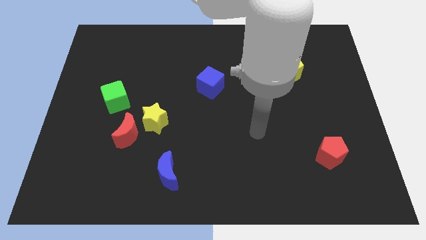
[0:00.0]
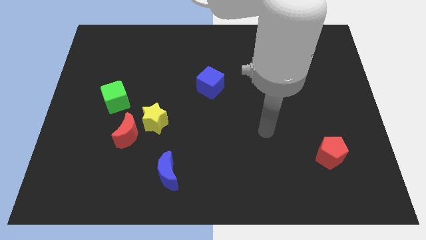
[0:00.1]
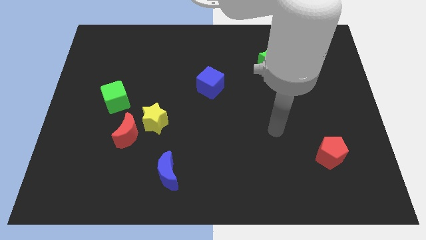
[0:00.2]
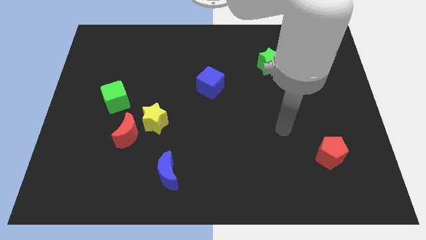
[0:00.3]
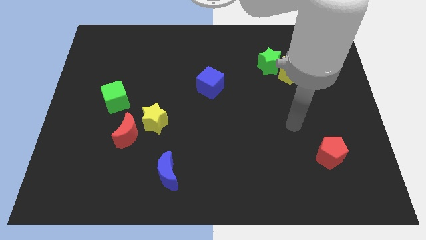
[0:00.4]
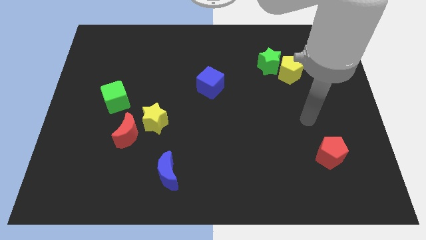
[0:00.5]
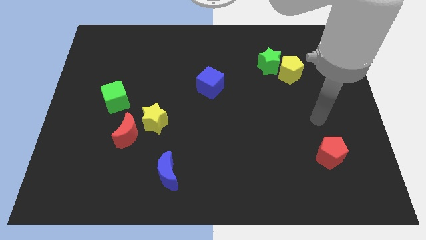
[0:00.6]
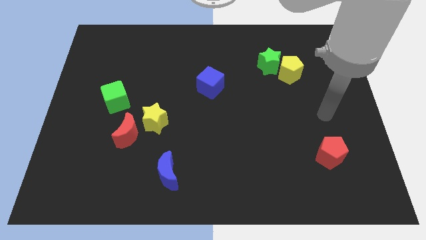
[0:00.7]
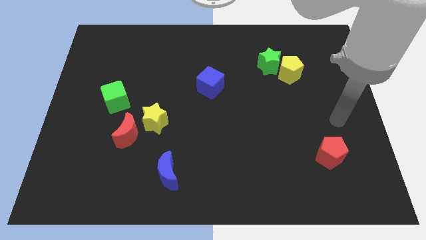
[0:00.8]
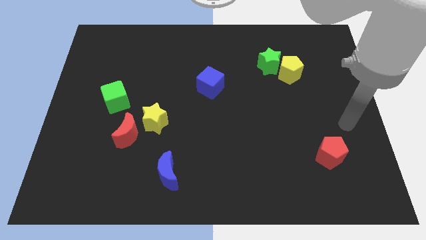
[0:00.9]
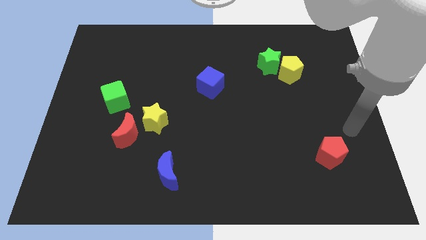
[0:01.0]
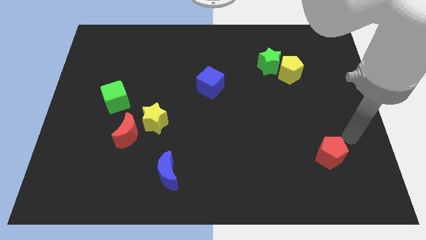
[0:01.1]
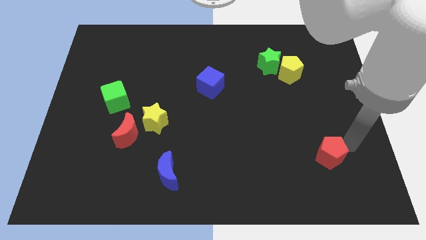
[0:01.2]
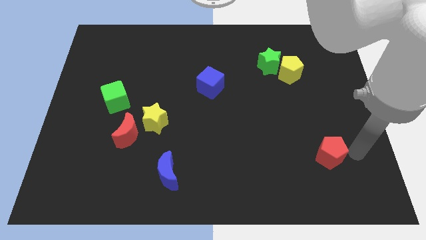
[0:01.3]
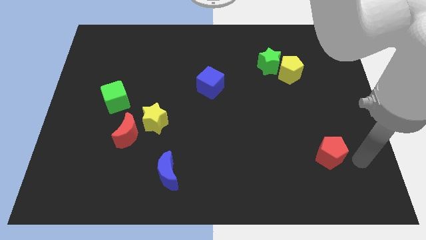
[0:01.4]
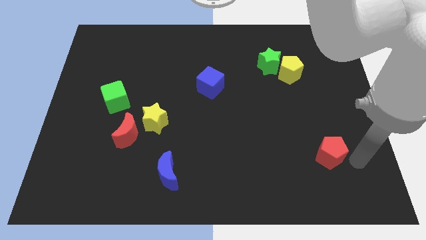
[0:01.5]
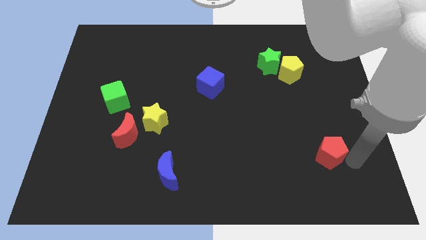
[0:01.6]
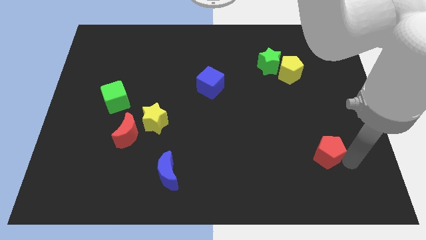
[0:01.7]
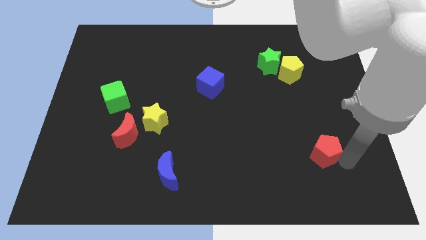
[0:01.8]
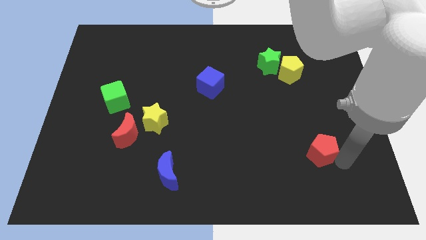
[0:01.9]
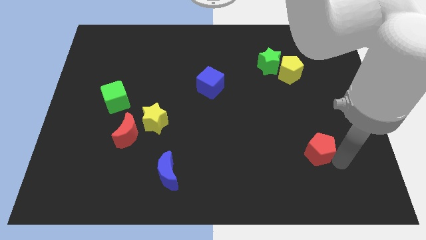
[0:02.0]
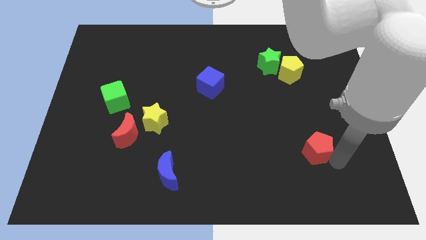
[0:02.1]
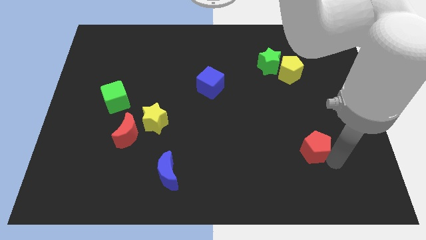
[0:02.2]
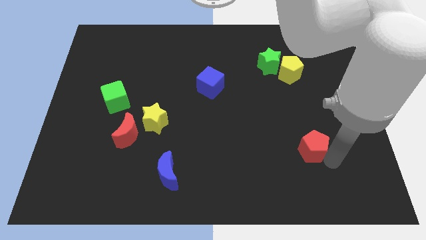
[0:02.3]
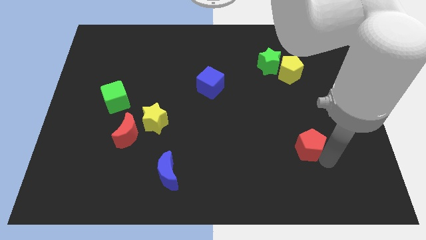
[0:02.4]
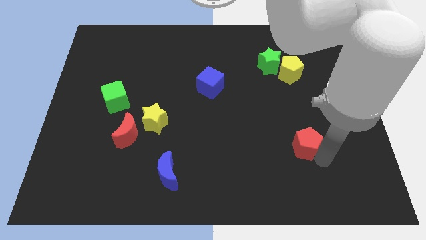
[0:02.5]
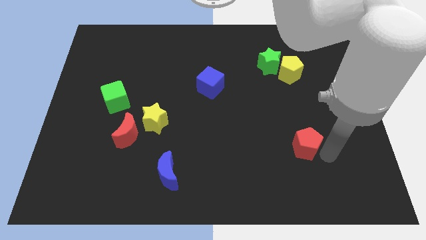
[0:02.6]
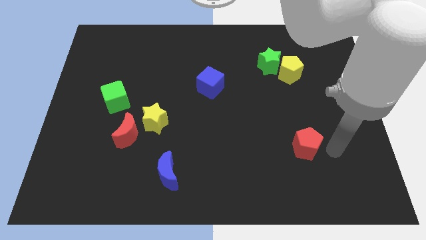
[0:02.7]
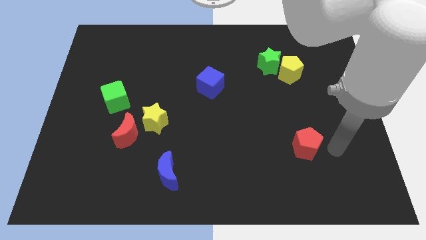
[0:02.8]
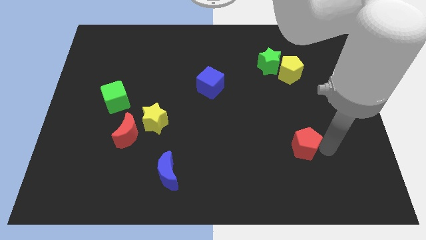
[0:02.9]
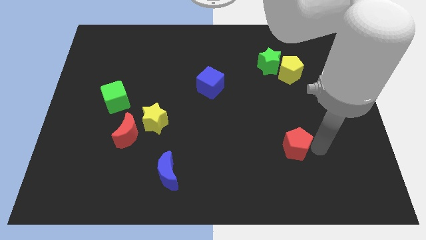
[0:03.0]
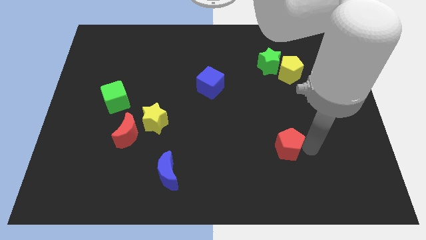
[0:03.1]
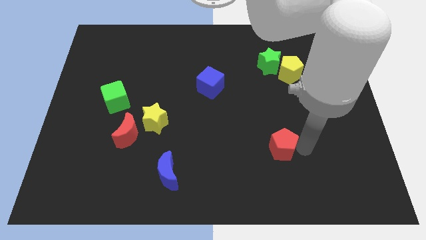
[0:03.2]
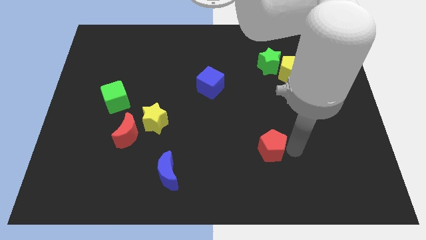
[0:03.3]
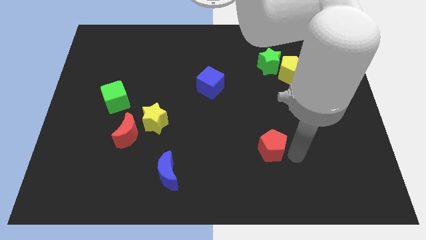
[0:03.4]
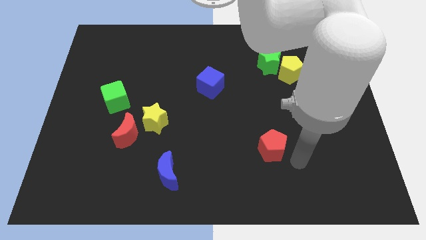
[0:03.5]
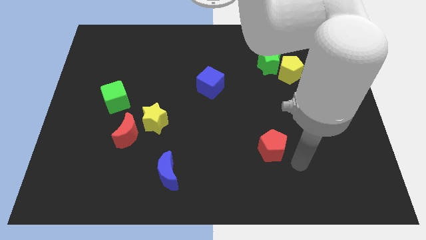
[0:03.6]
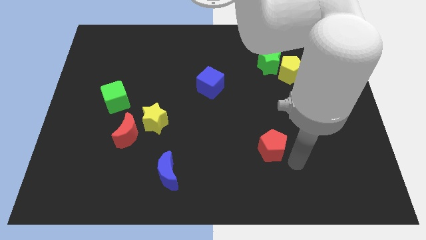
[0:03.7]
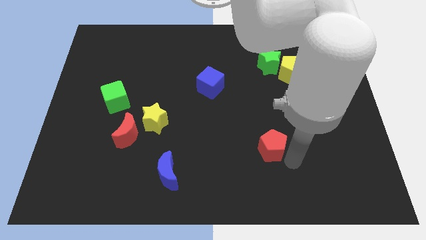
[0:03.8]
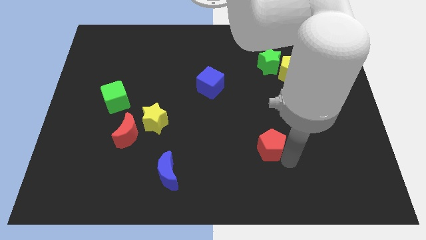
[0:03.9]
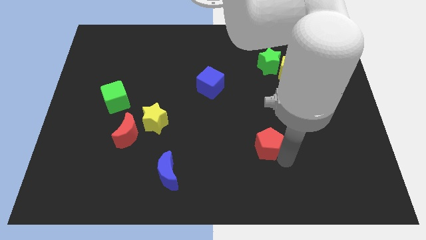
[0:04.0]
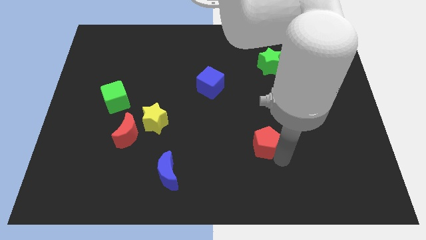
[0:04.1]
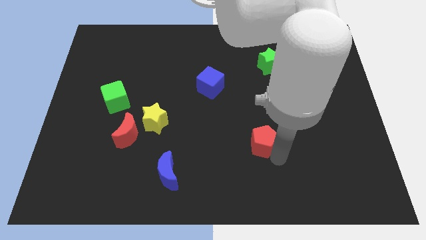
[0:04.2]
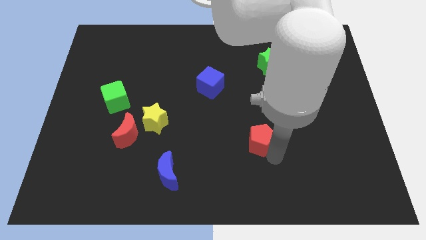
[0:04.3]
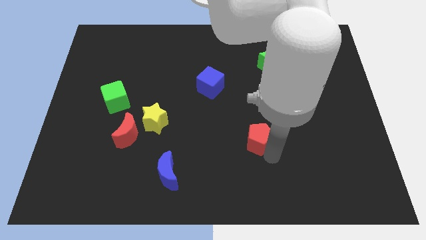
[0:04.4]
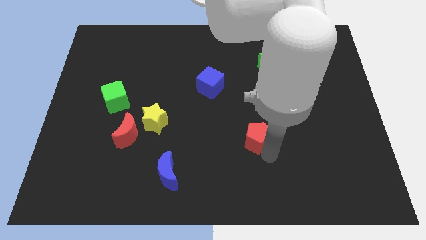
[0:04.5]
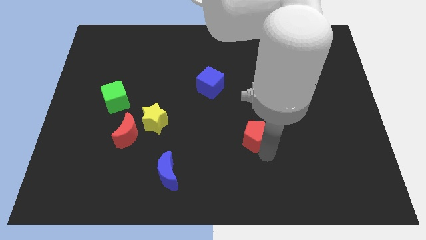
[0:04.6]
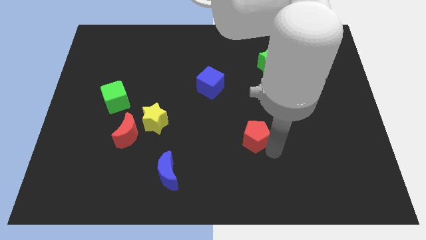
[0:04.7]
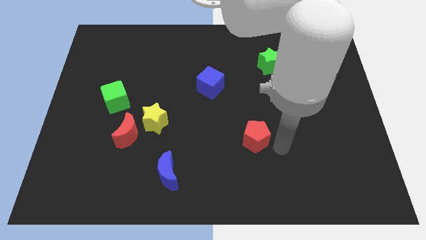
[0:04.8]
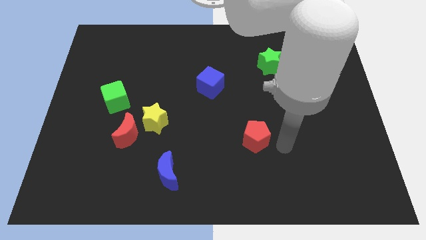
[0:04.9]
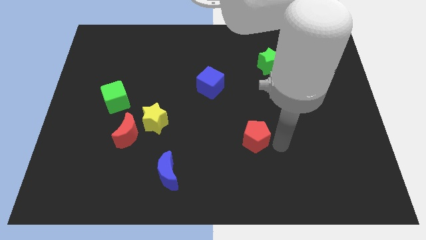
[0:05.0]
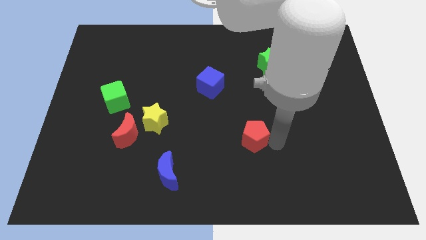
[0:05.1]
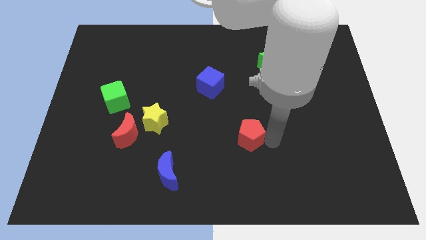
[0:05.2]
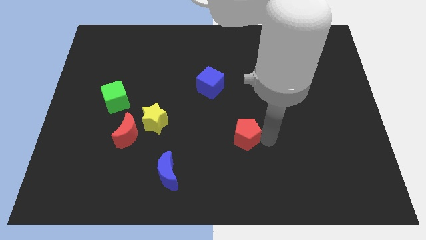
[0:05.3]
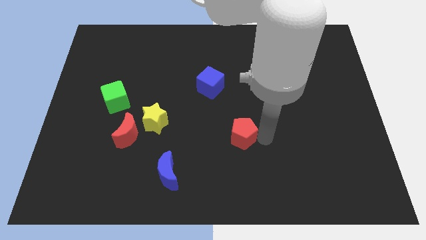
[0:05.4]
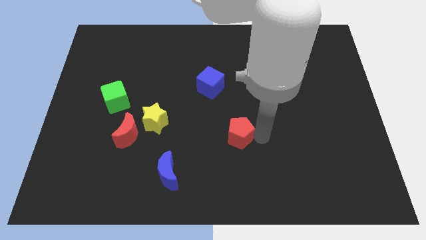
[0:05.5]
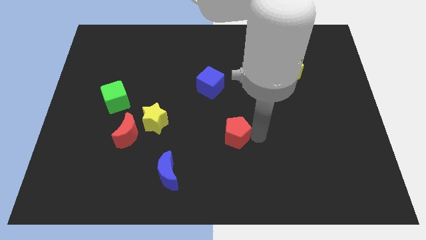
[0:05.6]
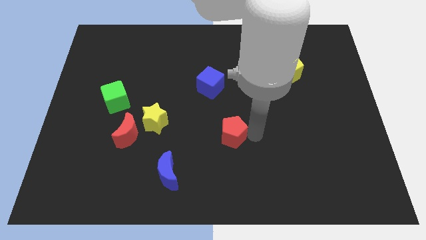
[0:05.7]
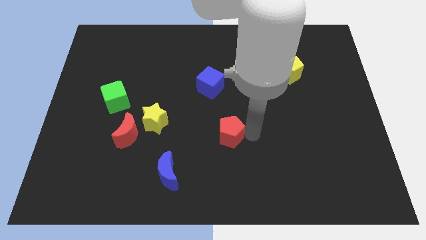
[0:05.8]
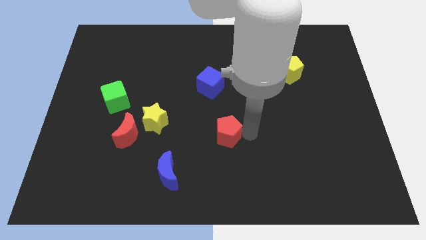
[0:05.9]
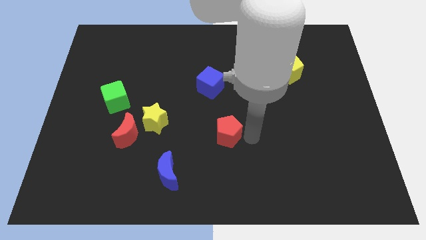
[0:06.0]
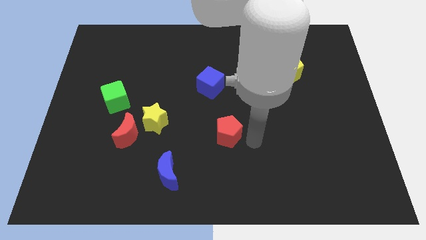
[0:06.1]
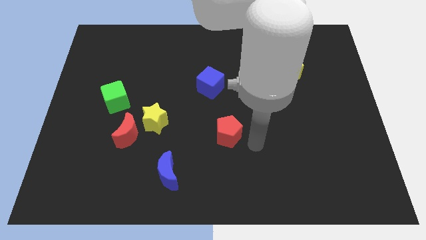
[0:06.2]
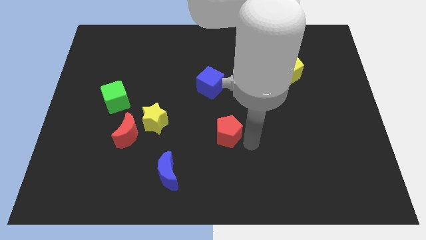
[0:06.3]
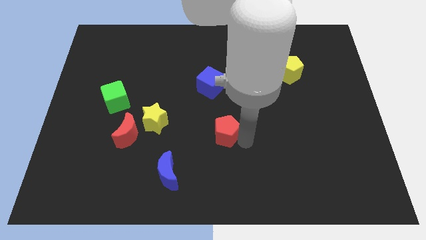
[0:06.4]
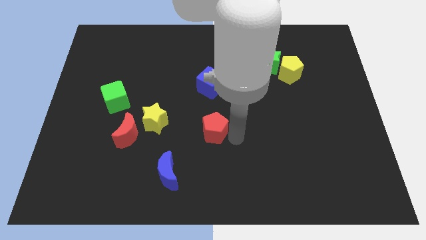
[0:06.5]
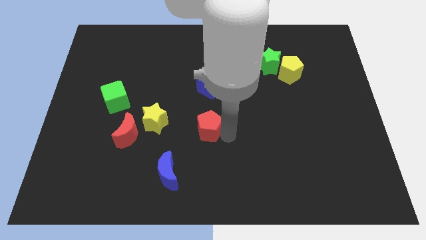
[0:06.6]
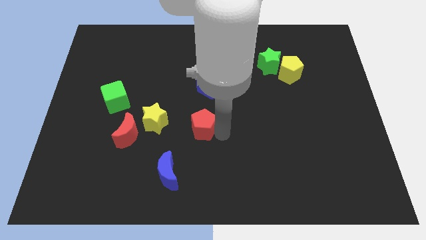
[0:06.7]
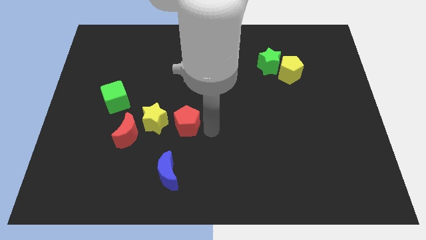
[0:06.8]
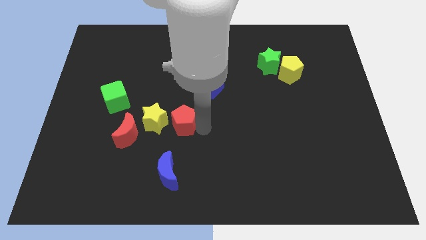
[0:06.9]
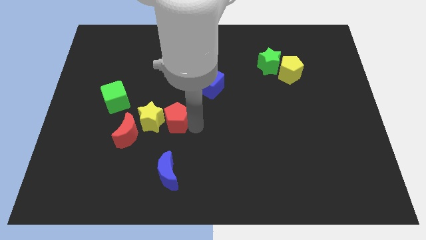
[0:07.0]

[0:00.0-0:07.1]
move the red pentagon towards the yellow star
